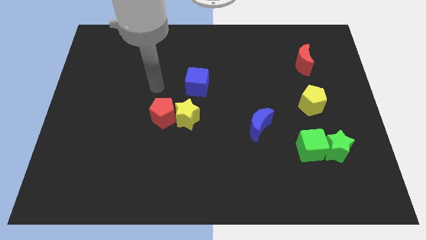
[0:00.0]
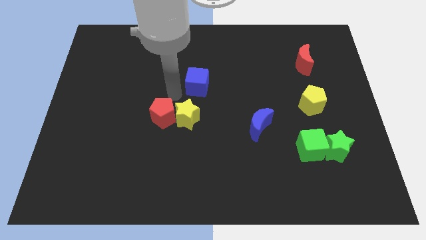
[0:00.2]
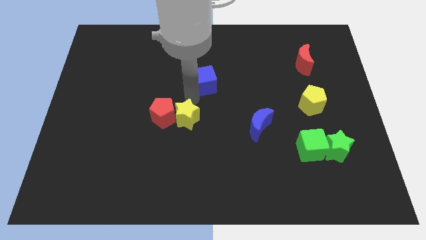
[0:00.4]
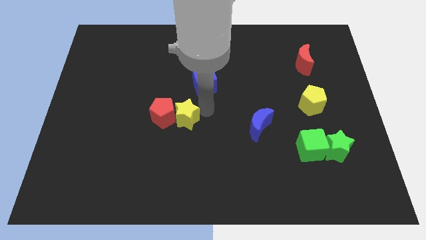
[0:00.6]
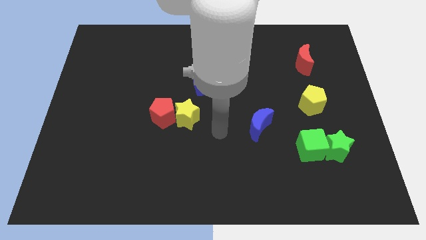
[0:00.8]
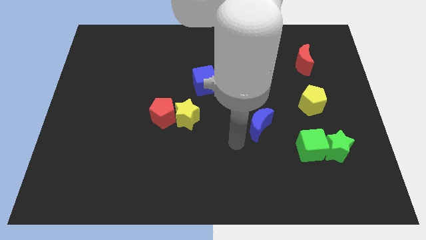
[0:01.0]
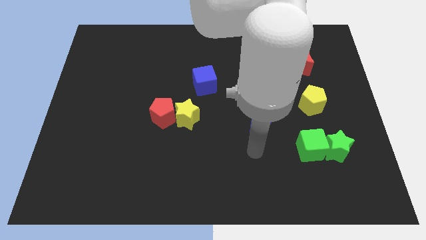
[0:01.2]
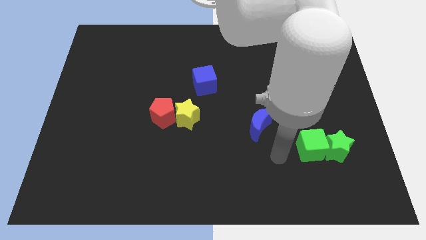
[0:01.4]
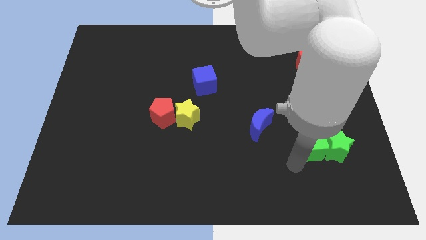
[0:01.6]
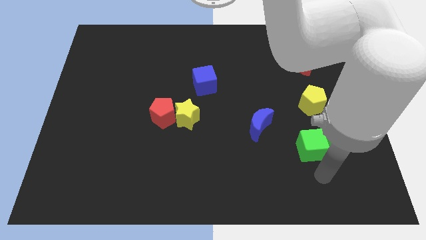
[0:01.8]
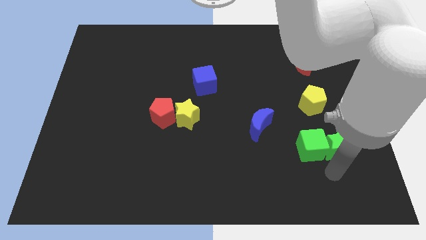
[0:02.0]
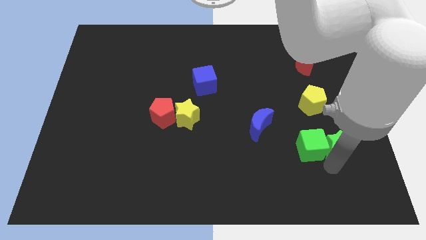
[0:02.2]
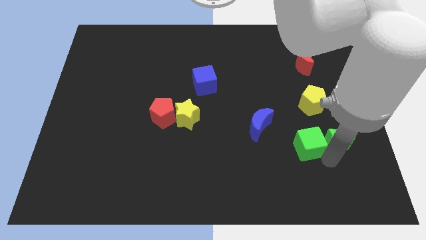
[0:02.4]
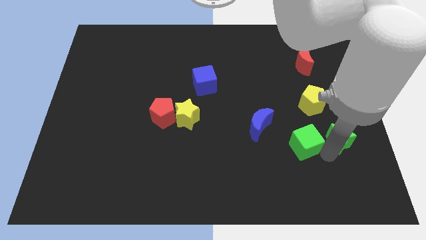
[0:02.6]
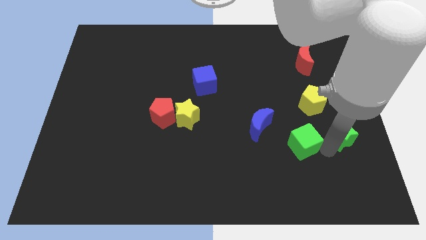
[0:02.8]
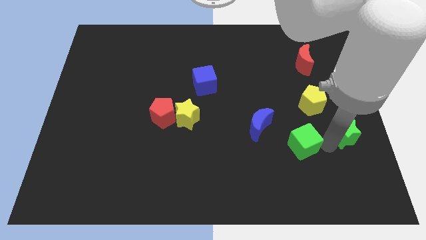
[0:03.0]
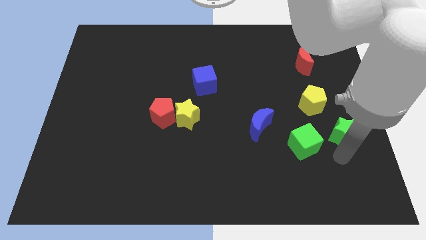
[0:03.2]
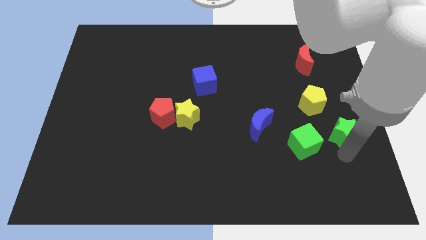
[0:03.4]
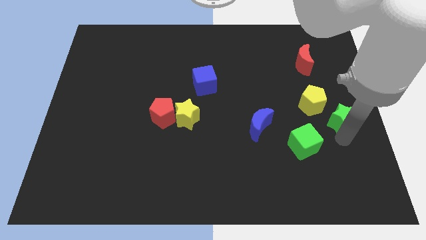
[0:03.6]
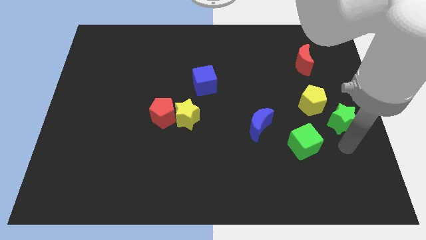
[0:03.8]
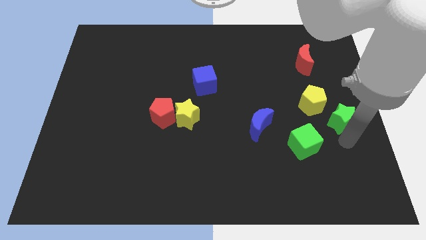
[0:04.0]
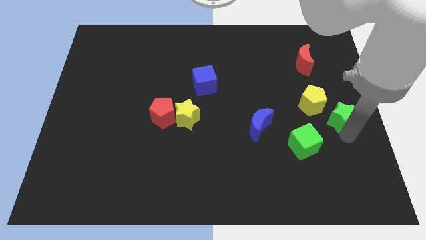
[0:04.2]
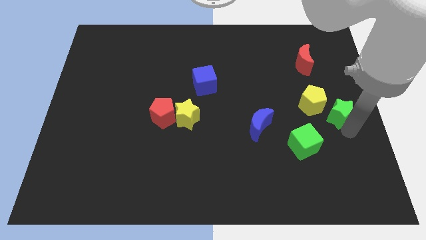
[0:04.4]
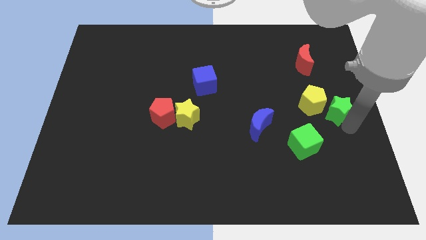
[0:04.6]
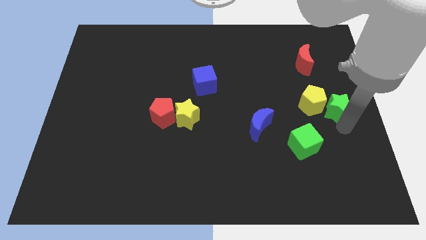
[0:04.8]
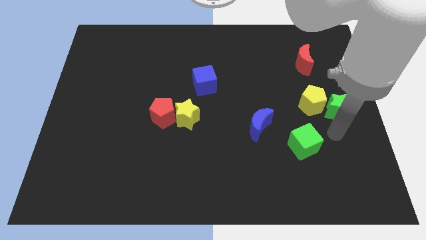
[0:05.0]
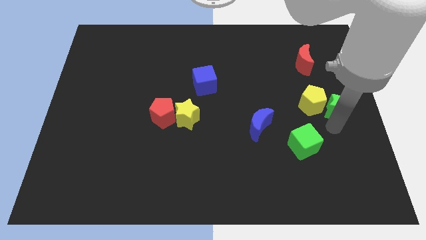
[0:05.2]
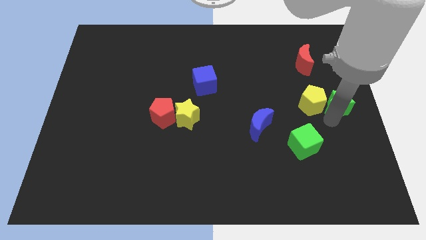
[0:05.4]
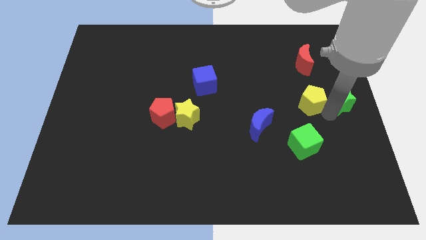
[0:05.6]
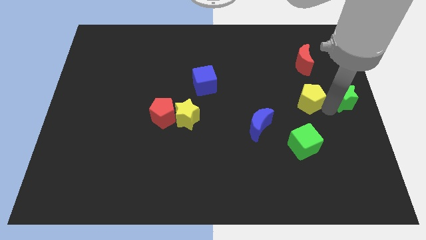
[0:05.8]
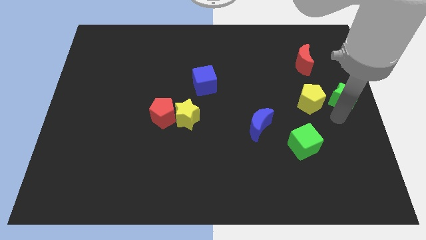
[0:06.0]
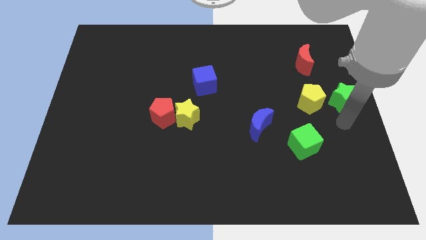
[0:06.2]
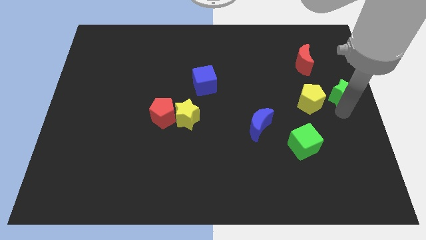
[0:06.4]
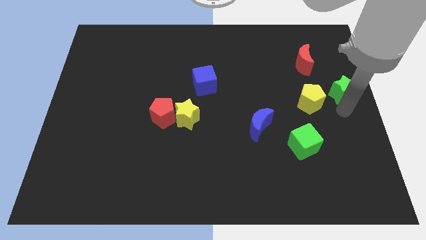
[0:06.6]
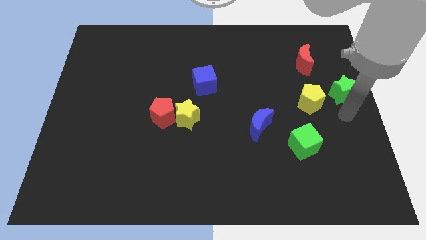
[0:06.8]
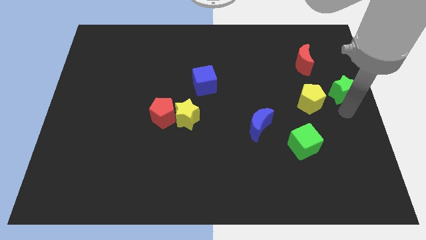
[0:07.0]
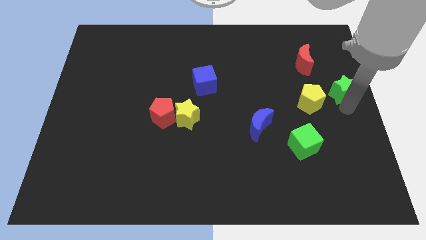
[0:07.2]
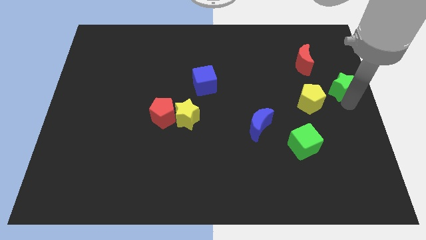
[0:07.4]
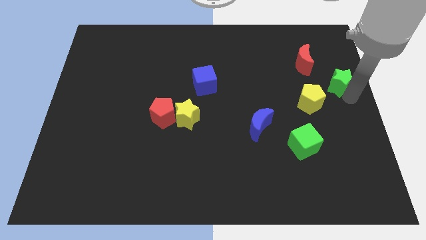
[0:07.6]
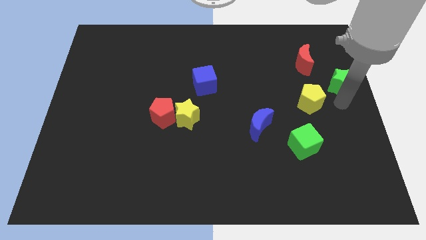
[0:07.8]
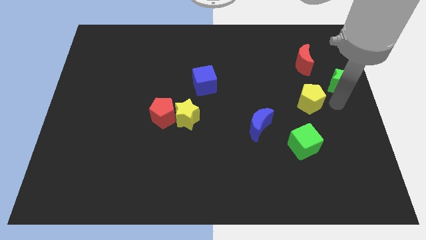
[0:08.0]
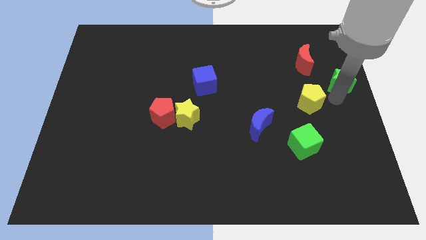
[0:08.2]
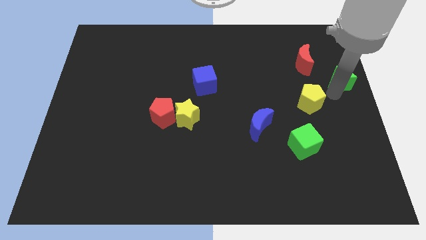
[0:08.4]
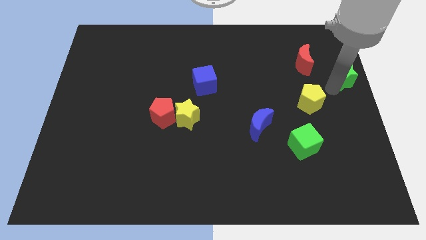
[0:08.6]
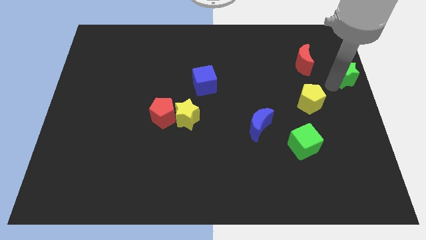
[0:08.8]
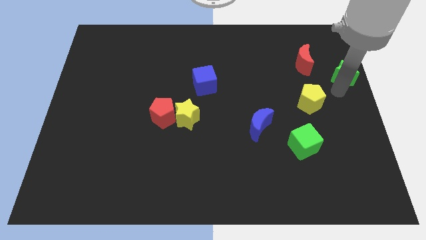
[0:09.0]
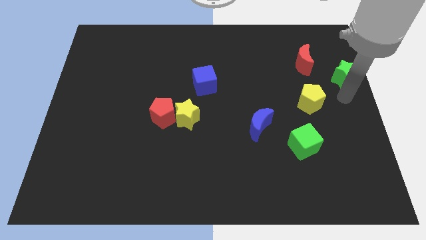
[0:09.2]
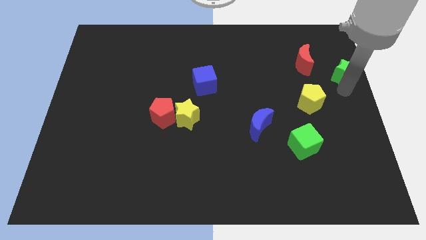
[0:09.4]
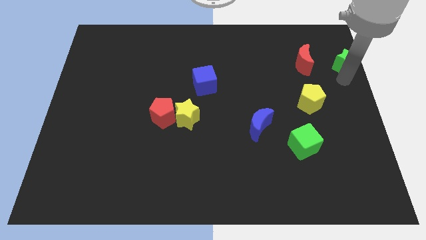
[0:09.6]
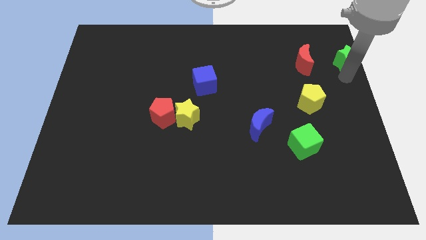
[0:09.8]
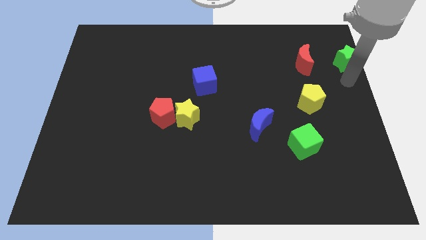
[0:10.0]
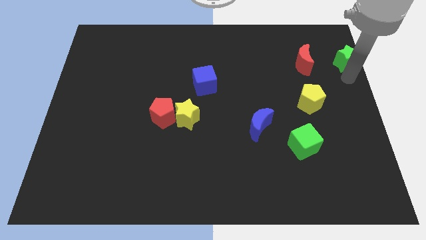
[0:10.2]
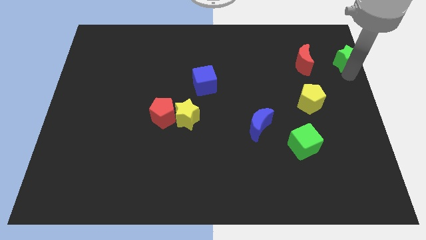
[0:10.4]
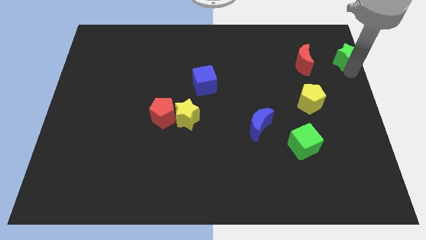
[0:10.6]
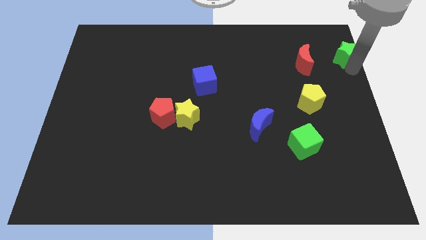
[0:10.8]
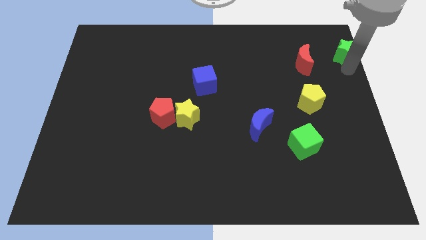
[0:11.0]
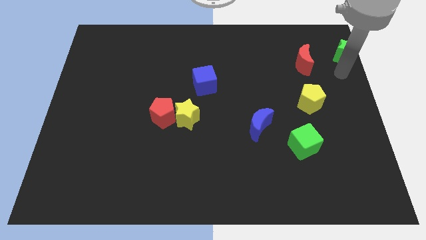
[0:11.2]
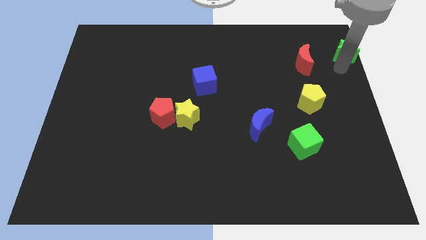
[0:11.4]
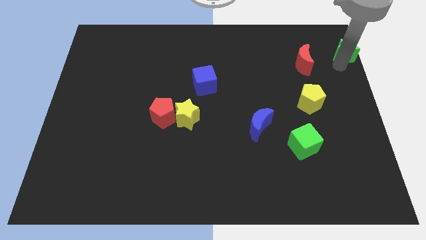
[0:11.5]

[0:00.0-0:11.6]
slide the green star to the top right corner
